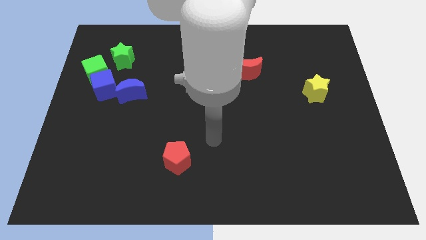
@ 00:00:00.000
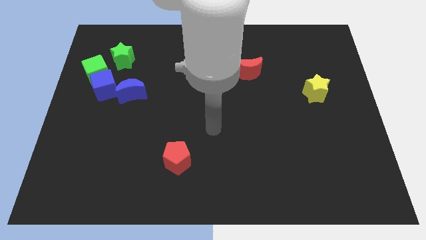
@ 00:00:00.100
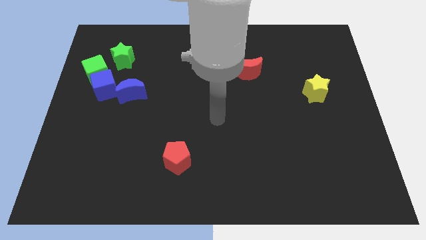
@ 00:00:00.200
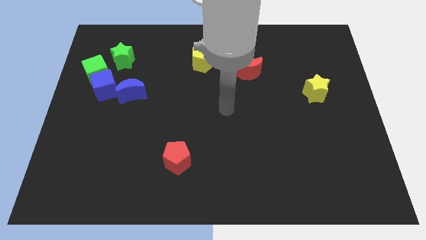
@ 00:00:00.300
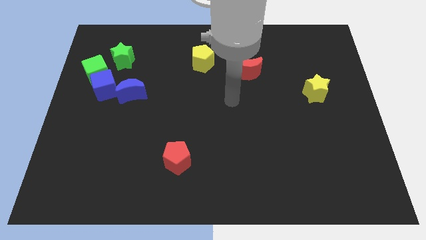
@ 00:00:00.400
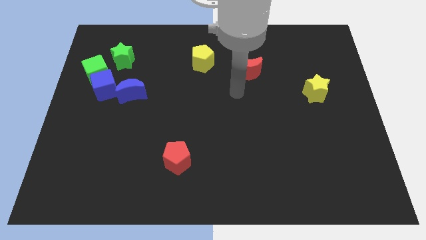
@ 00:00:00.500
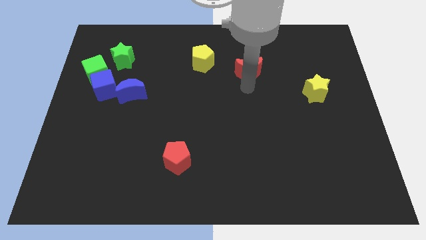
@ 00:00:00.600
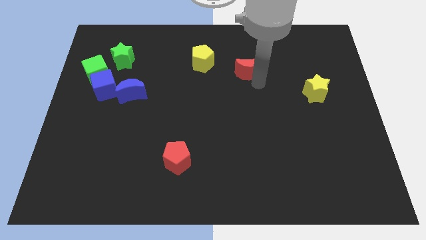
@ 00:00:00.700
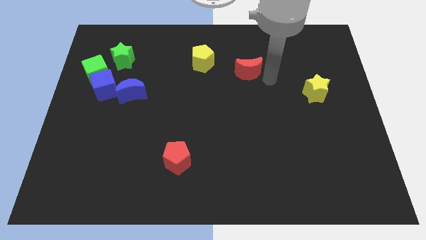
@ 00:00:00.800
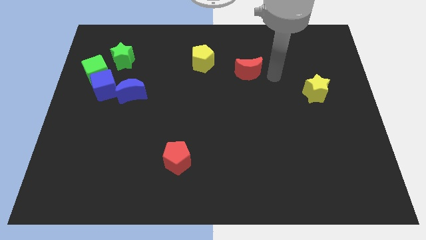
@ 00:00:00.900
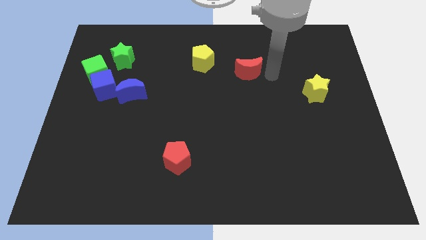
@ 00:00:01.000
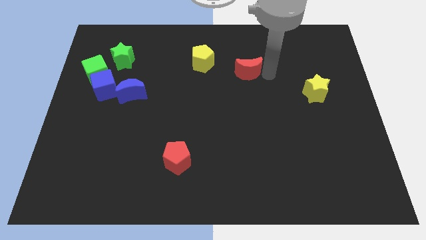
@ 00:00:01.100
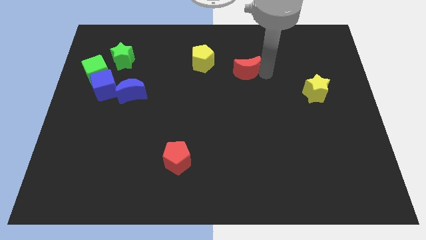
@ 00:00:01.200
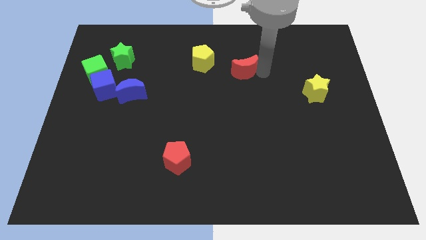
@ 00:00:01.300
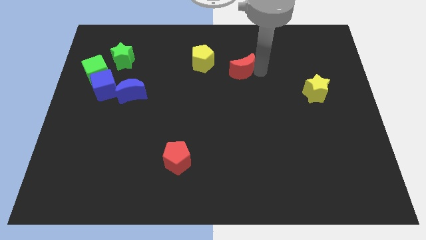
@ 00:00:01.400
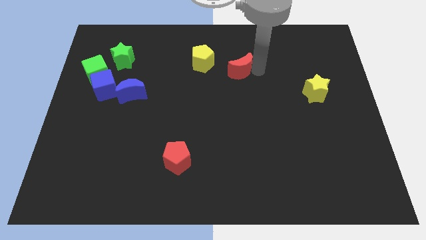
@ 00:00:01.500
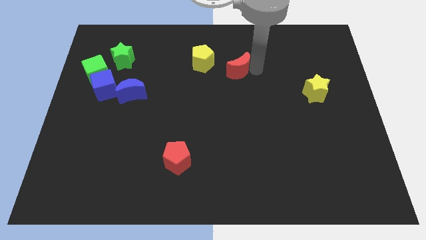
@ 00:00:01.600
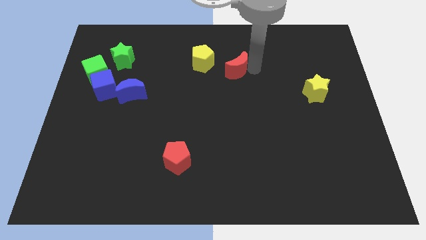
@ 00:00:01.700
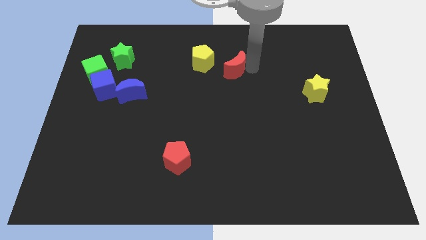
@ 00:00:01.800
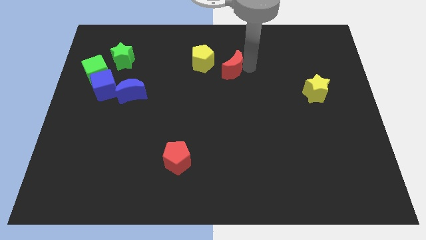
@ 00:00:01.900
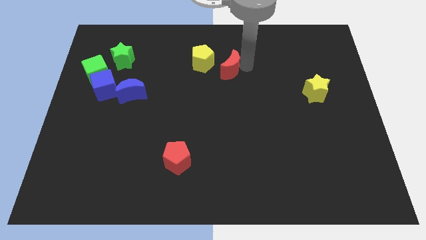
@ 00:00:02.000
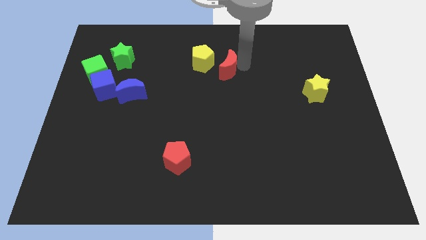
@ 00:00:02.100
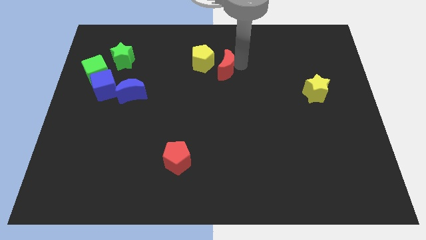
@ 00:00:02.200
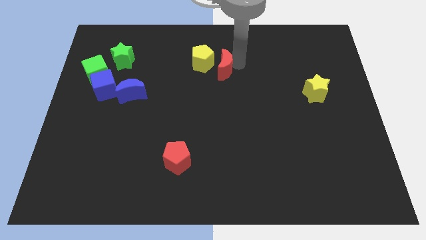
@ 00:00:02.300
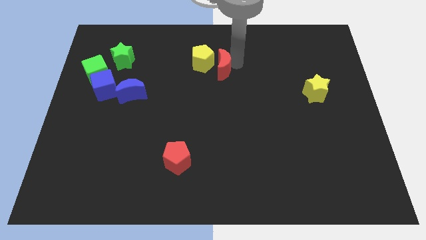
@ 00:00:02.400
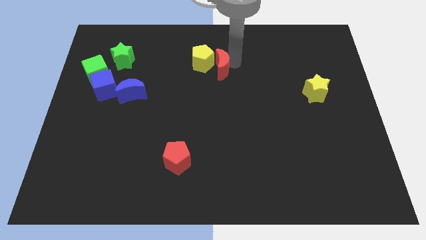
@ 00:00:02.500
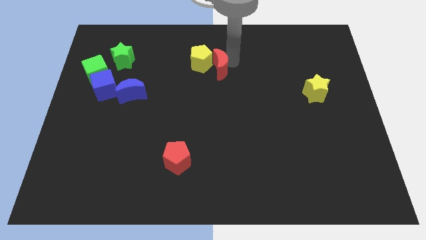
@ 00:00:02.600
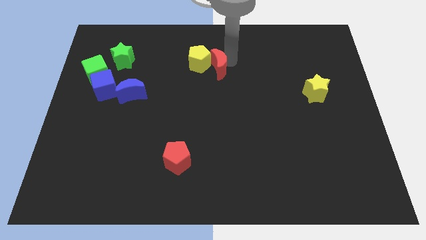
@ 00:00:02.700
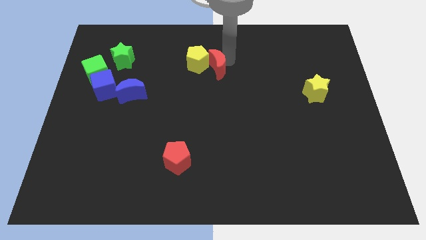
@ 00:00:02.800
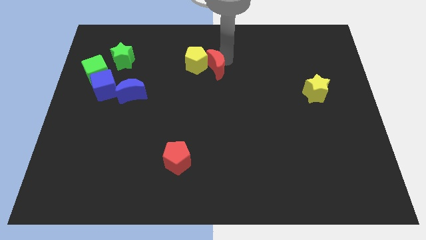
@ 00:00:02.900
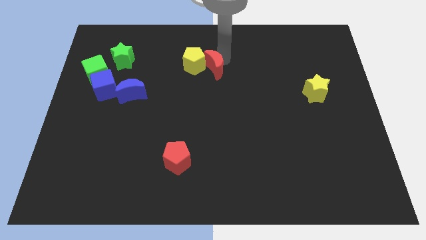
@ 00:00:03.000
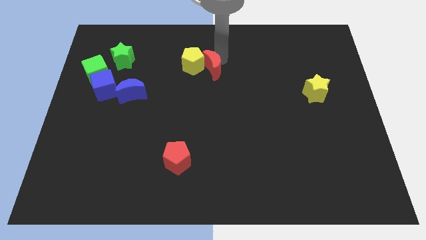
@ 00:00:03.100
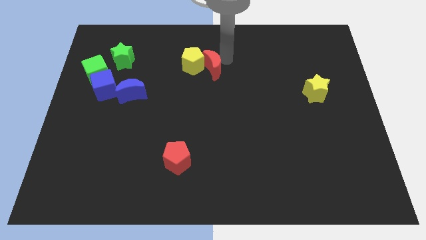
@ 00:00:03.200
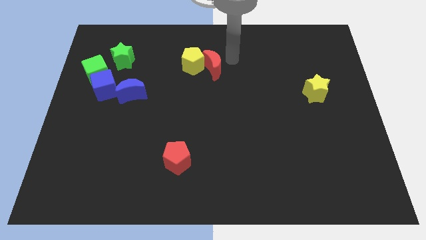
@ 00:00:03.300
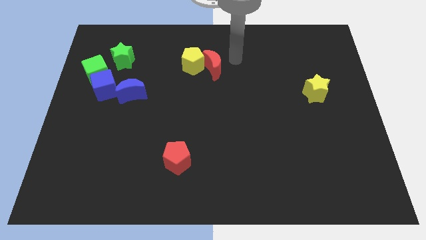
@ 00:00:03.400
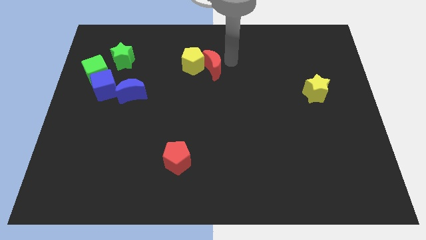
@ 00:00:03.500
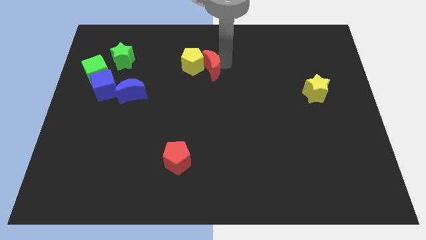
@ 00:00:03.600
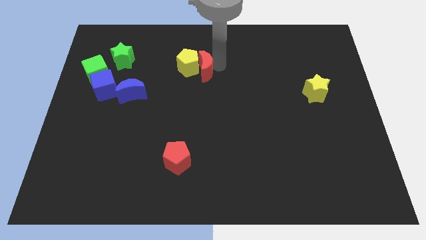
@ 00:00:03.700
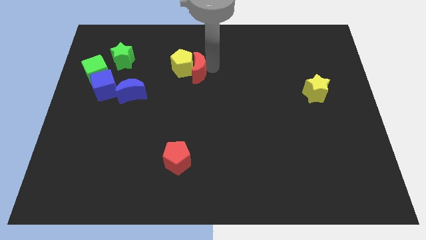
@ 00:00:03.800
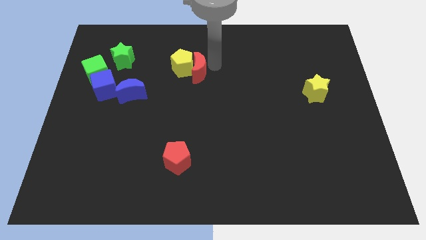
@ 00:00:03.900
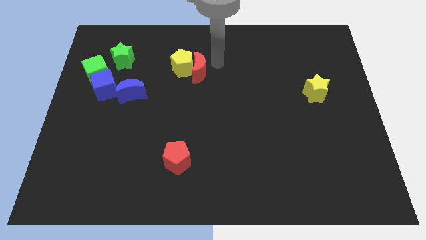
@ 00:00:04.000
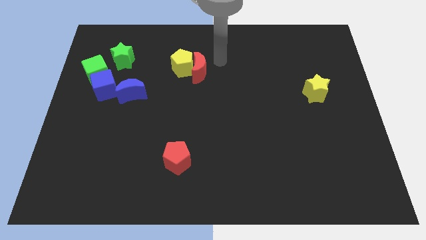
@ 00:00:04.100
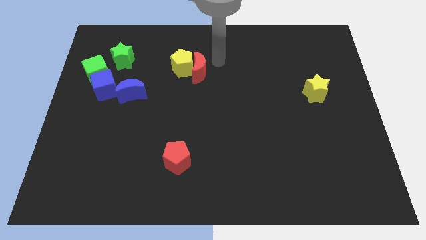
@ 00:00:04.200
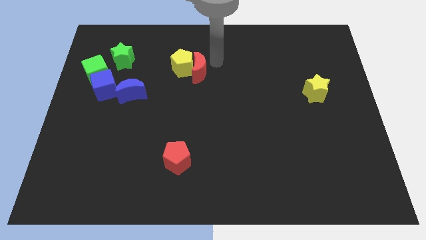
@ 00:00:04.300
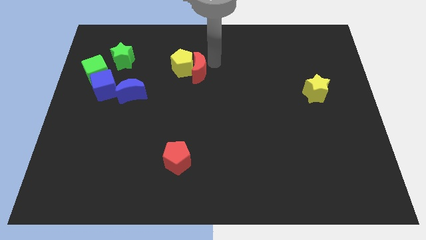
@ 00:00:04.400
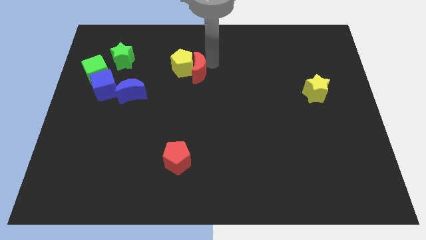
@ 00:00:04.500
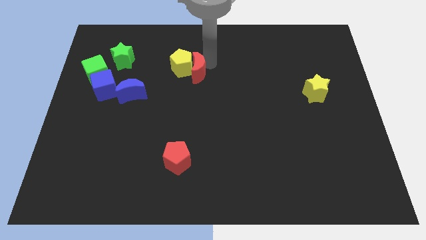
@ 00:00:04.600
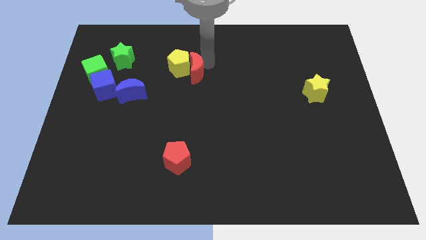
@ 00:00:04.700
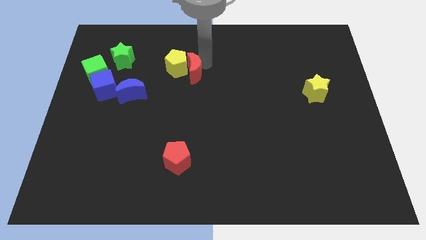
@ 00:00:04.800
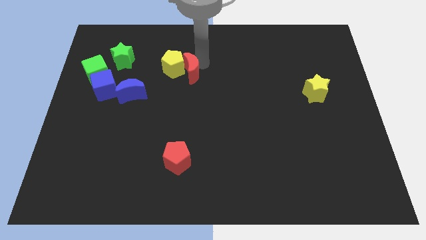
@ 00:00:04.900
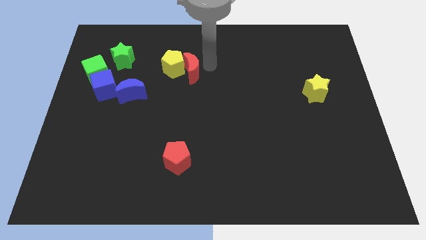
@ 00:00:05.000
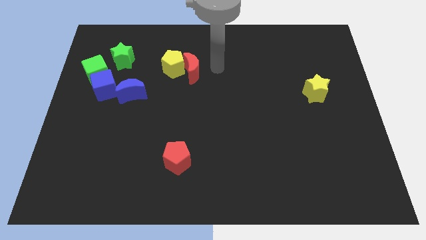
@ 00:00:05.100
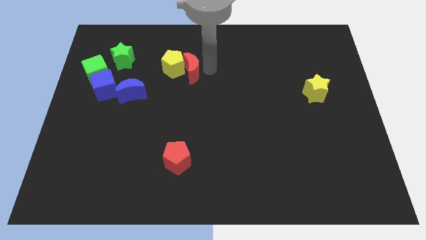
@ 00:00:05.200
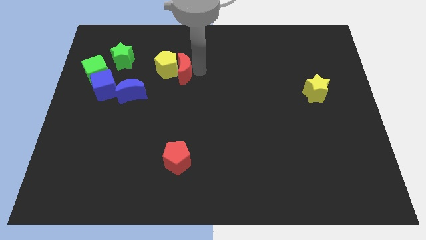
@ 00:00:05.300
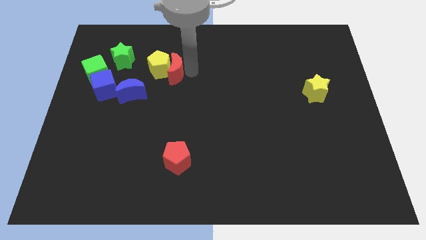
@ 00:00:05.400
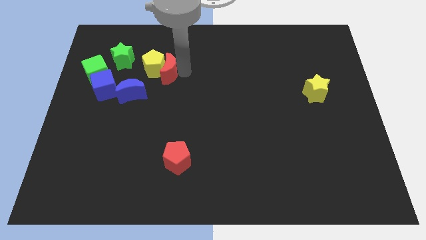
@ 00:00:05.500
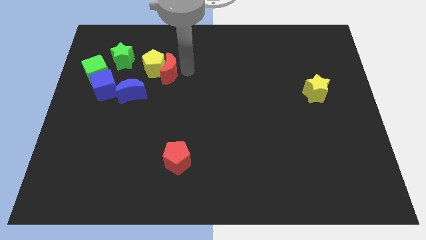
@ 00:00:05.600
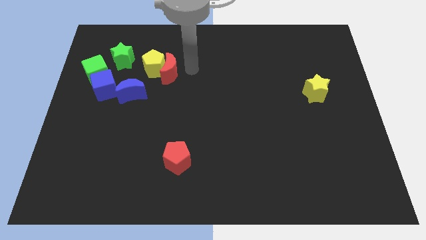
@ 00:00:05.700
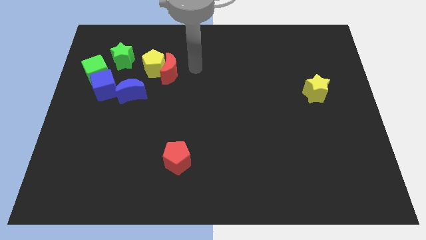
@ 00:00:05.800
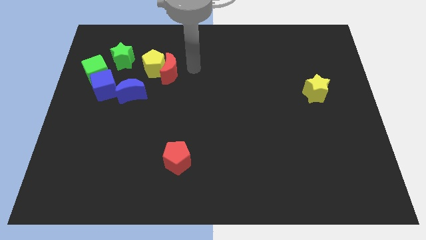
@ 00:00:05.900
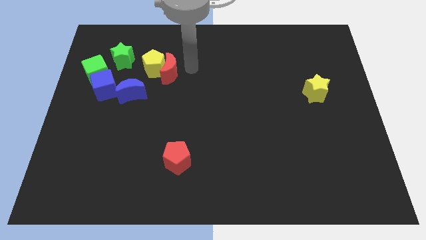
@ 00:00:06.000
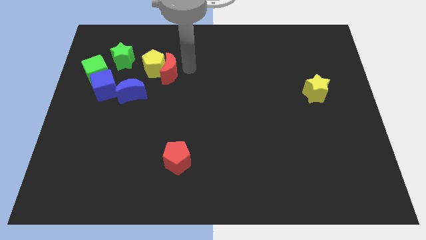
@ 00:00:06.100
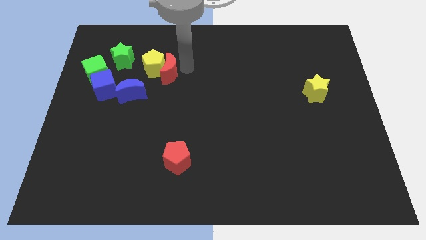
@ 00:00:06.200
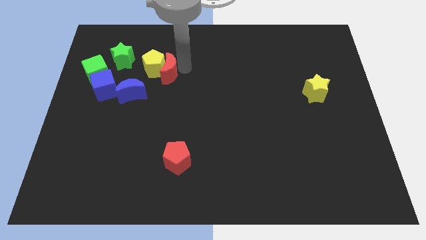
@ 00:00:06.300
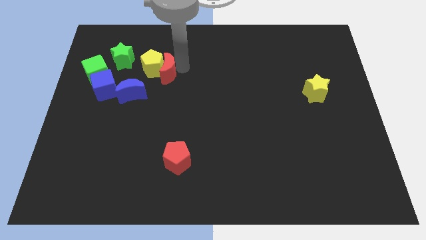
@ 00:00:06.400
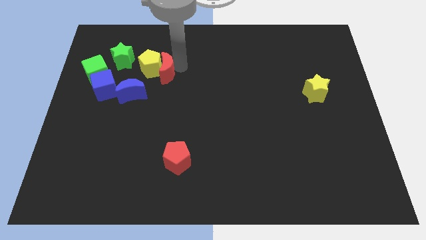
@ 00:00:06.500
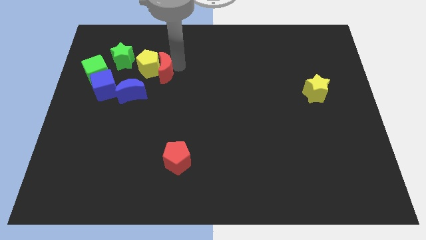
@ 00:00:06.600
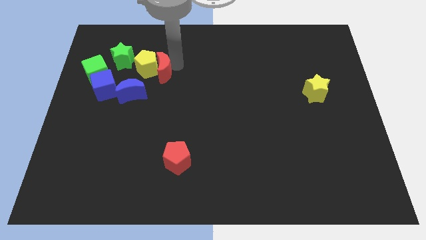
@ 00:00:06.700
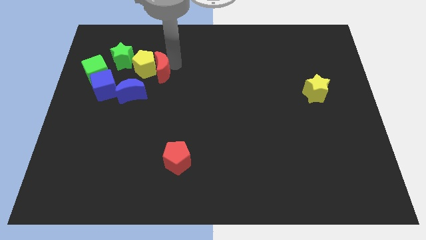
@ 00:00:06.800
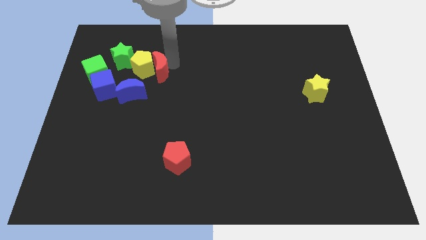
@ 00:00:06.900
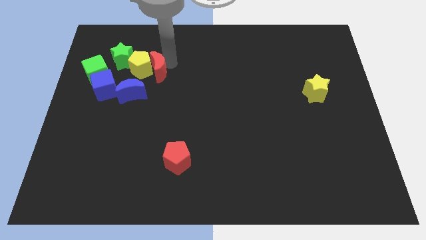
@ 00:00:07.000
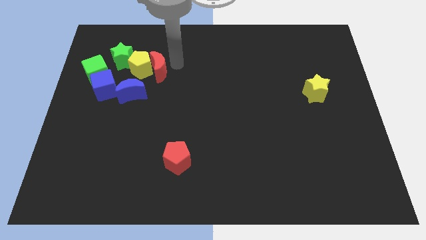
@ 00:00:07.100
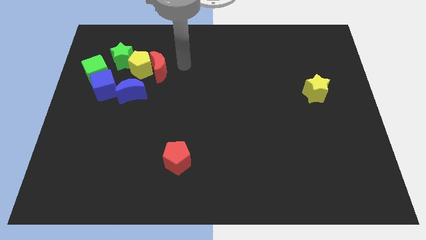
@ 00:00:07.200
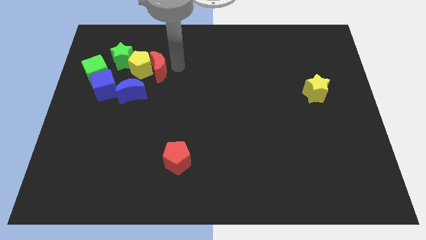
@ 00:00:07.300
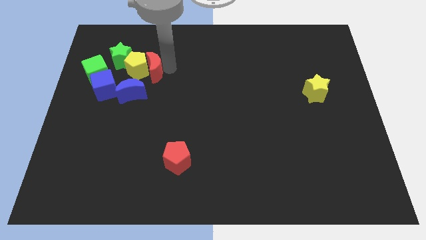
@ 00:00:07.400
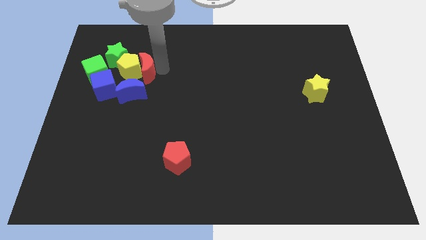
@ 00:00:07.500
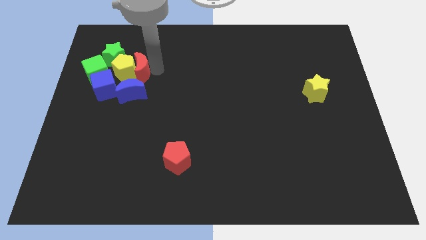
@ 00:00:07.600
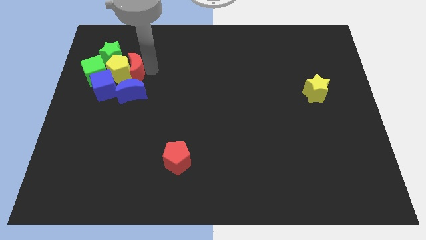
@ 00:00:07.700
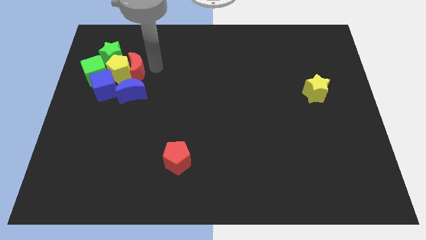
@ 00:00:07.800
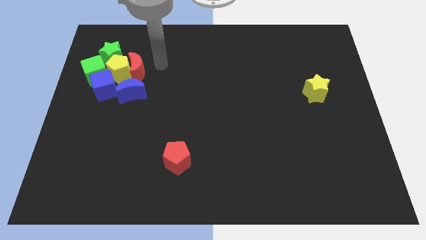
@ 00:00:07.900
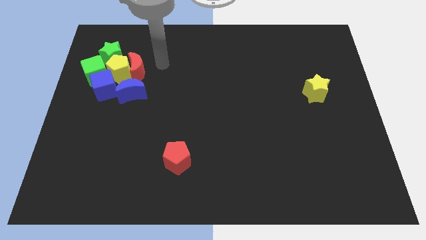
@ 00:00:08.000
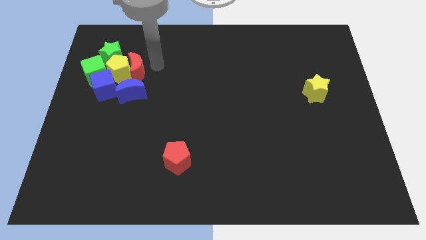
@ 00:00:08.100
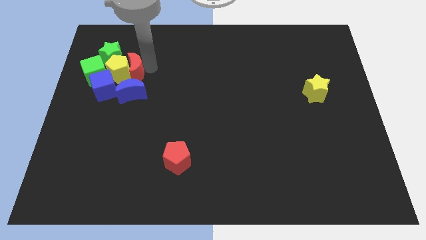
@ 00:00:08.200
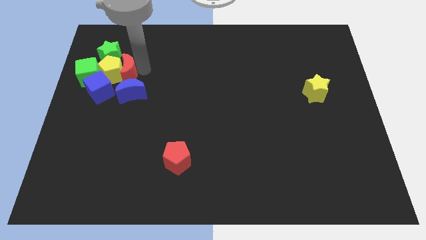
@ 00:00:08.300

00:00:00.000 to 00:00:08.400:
move the red moon to the top left of the blue moon
